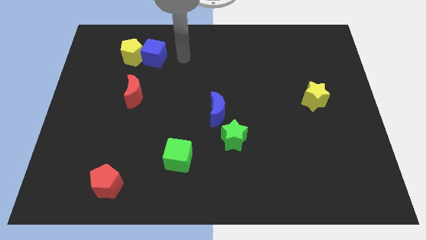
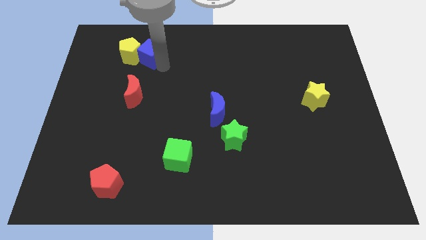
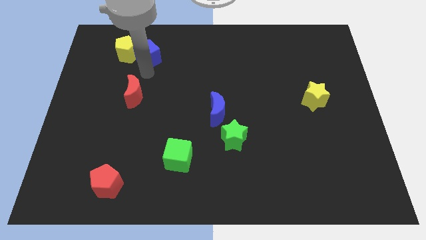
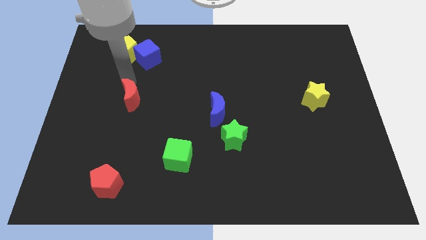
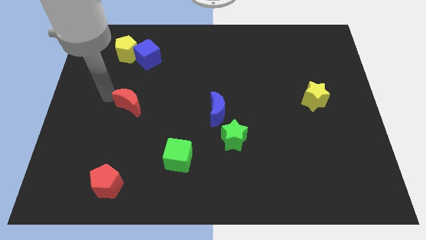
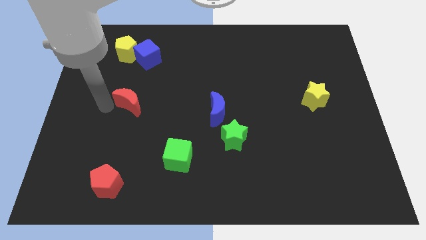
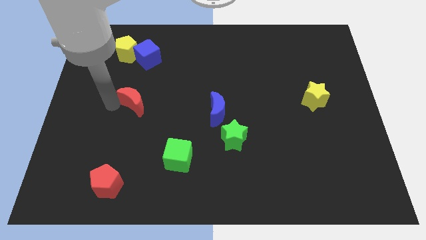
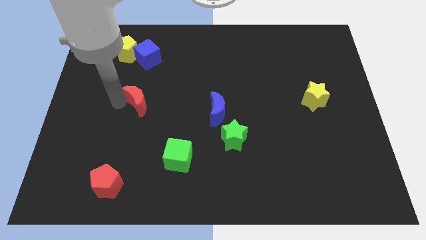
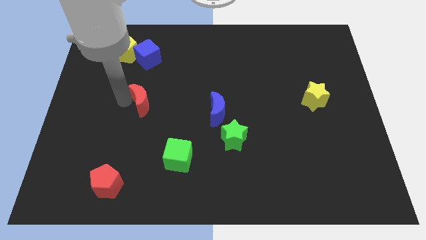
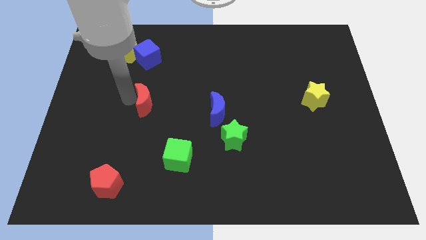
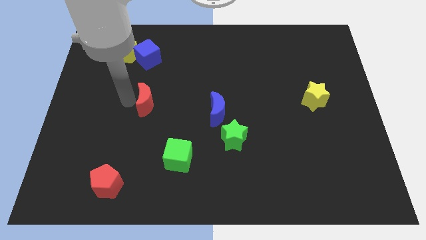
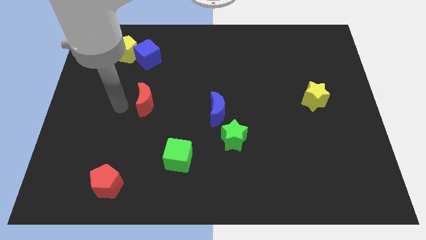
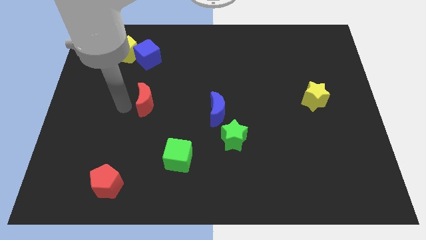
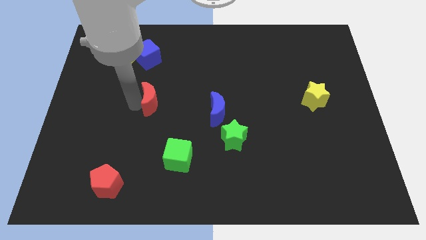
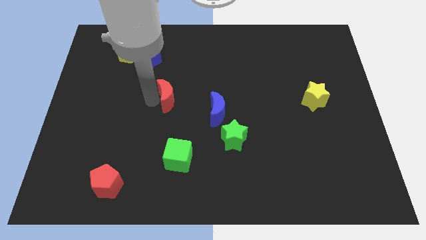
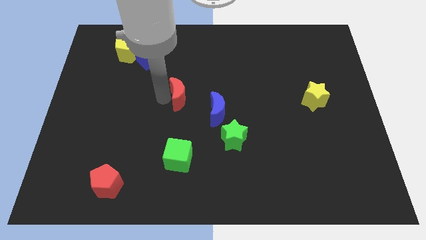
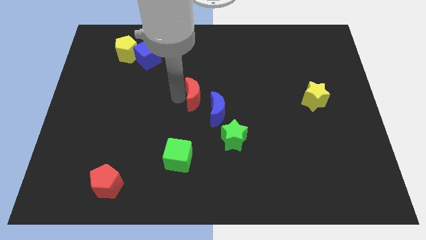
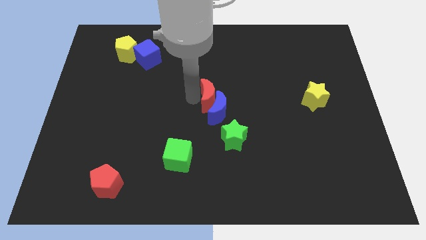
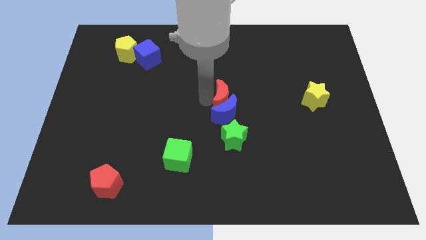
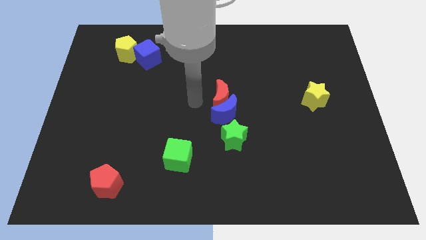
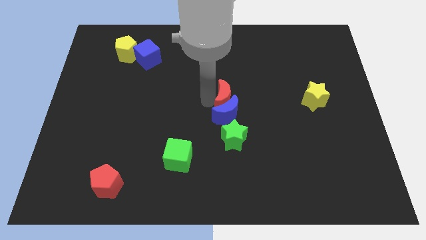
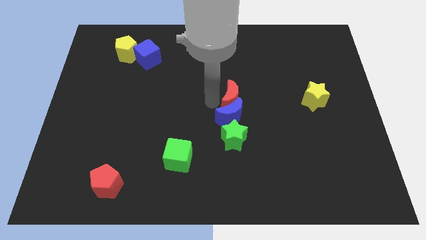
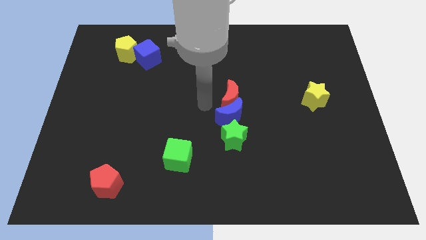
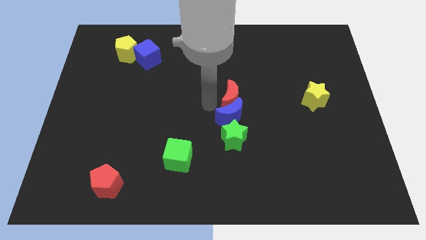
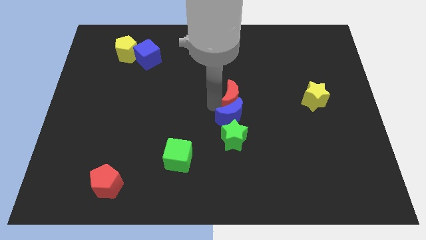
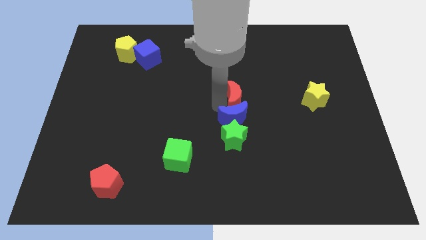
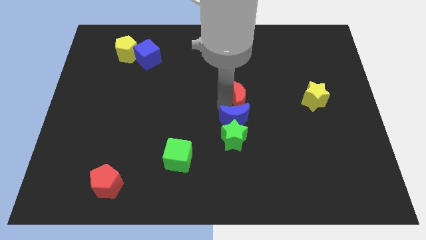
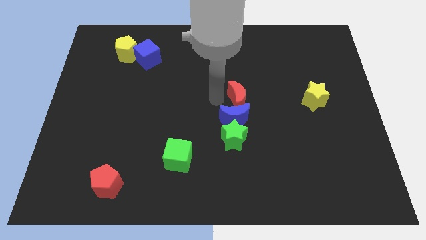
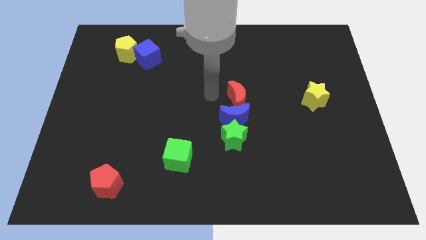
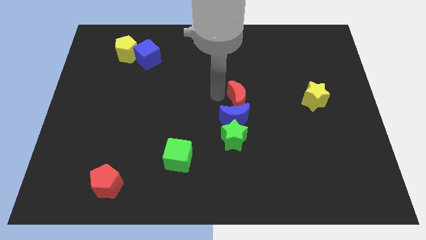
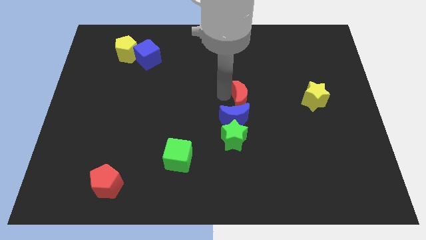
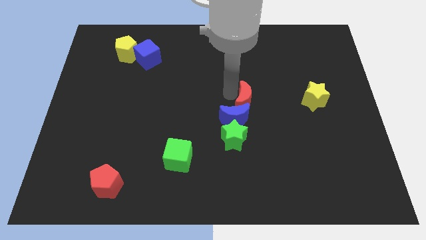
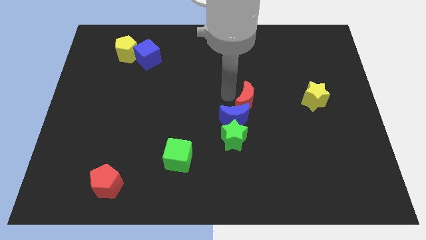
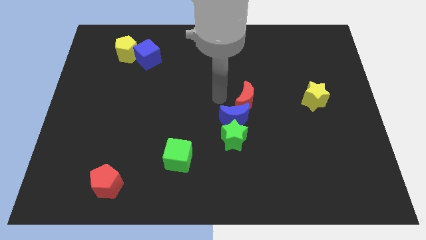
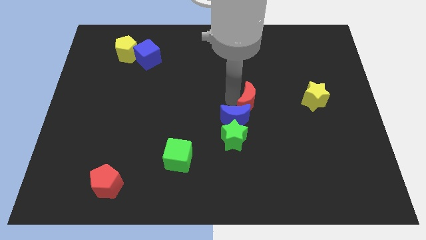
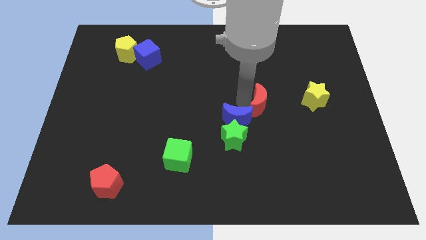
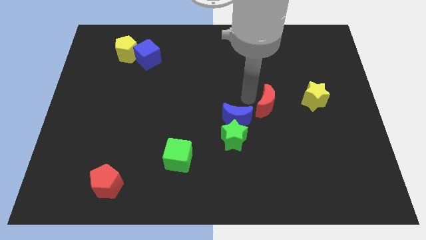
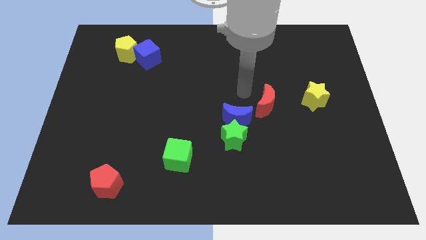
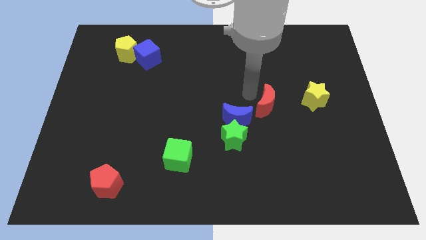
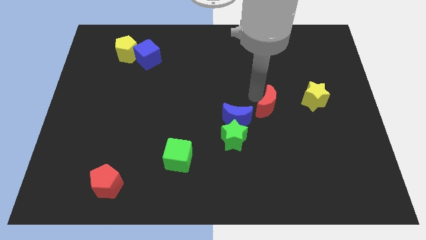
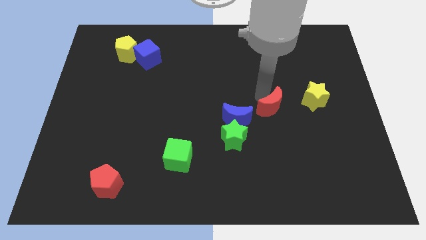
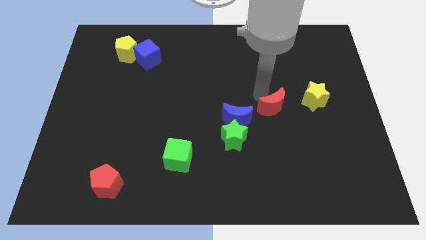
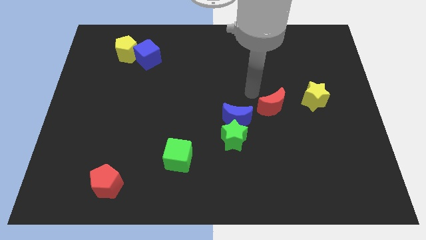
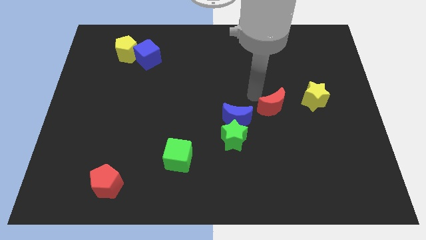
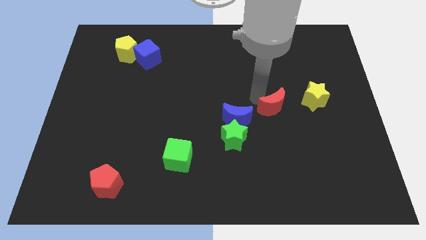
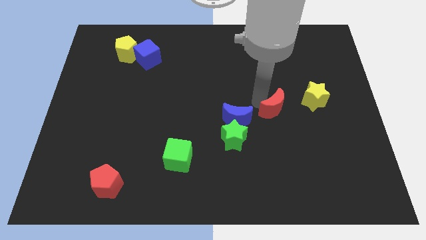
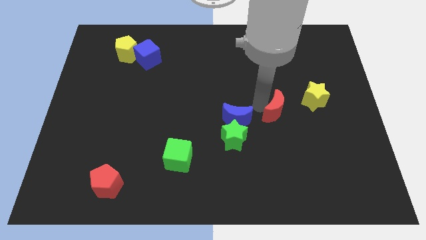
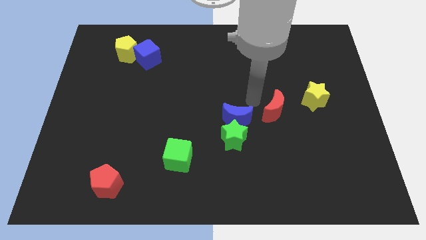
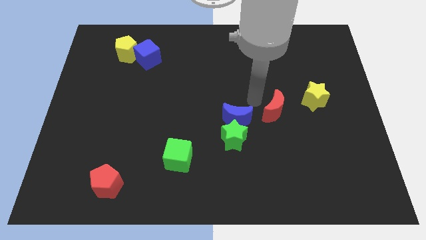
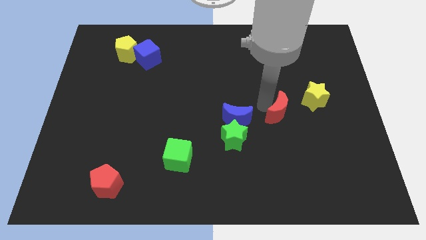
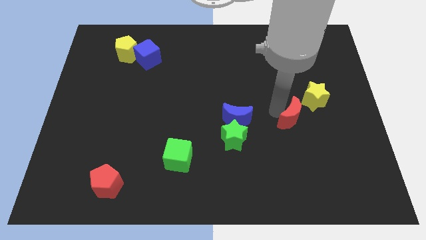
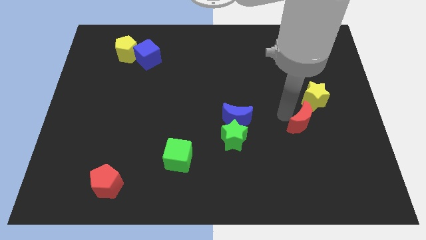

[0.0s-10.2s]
push the red moon to the bottom side of the yellow star

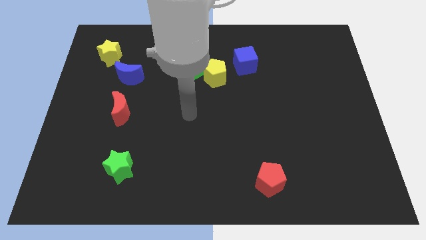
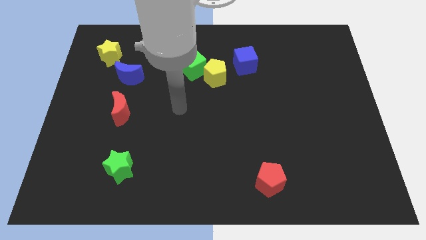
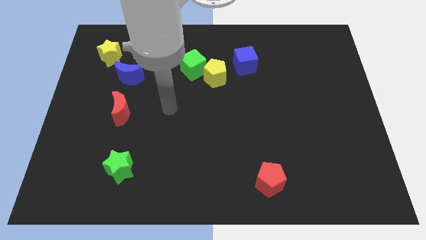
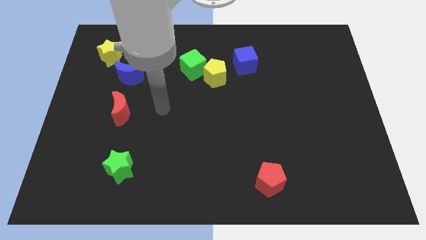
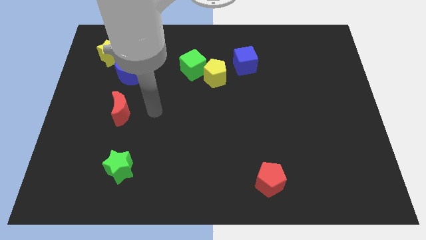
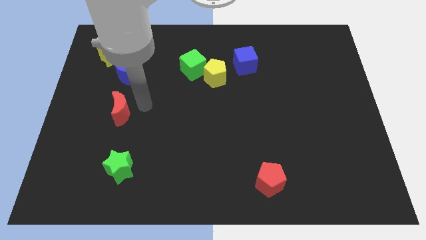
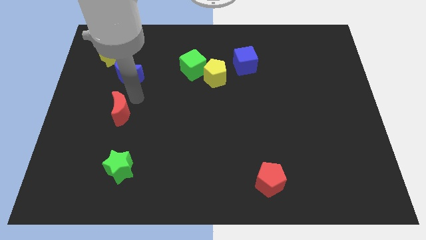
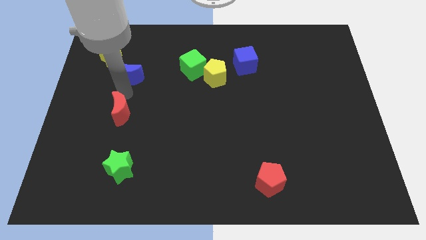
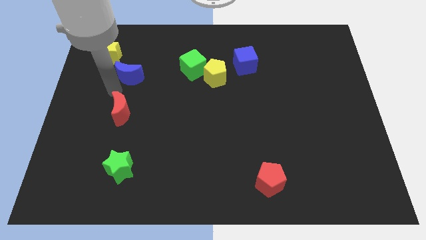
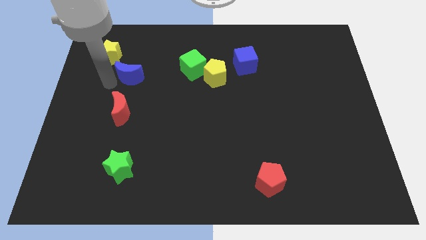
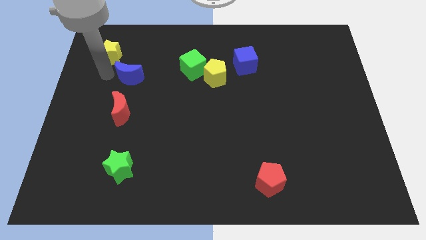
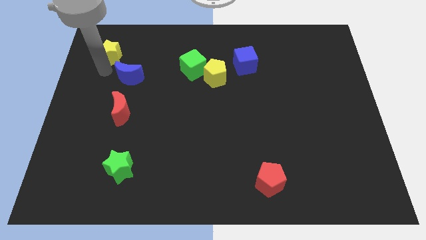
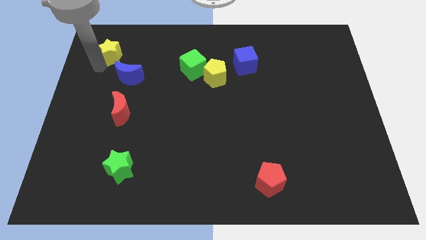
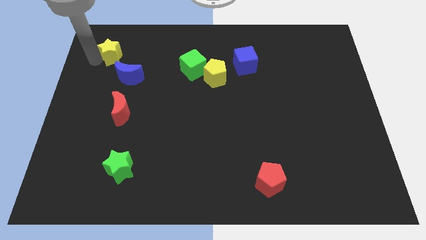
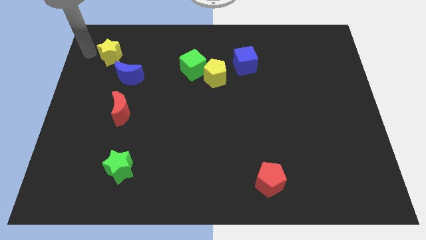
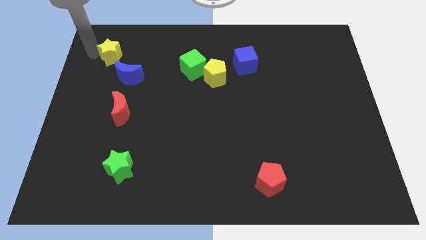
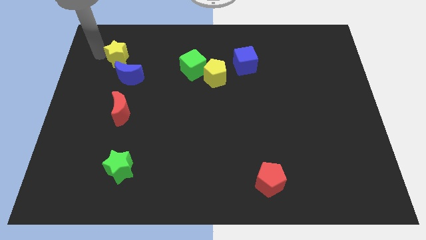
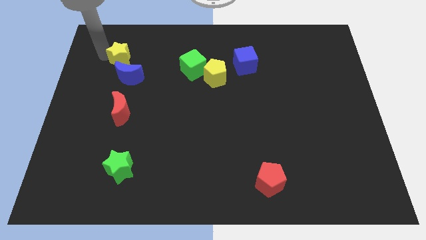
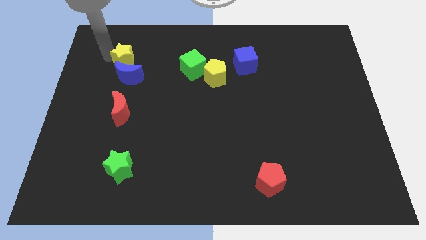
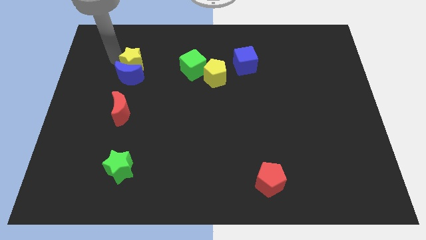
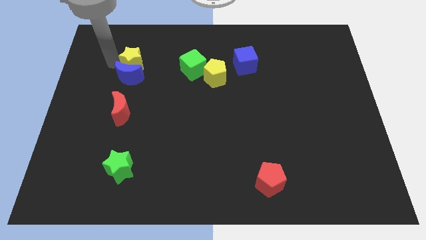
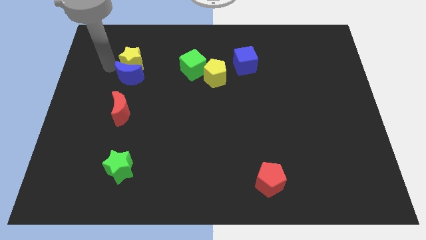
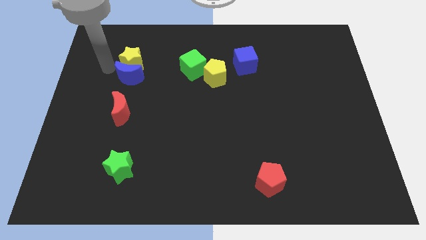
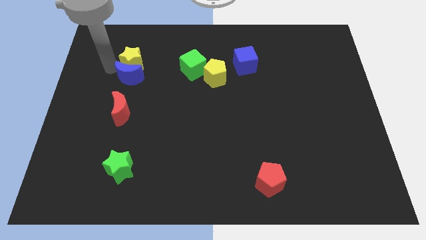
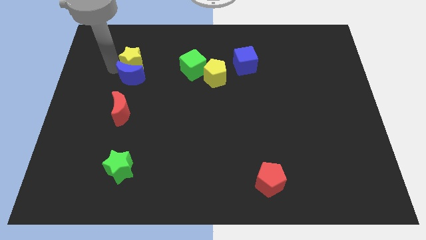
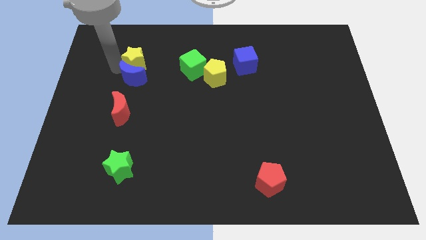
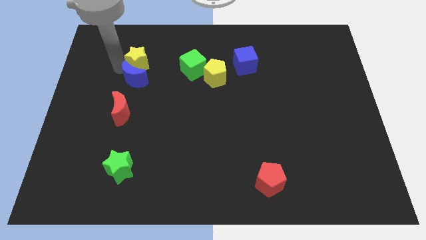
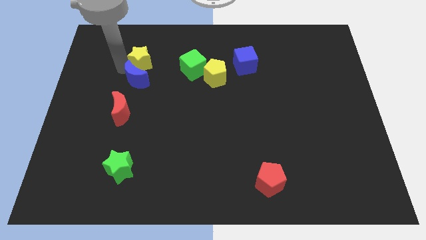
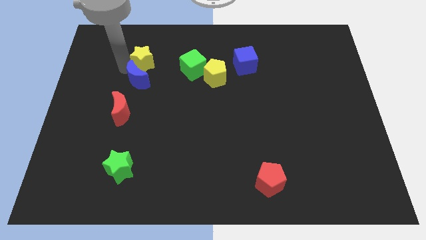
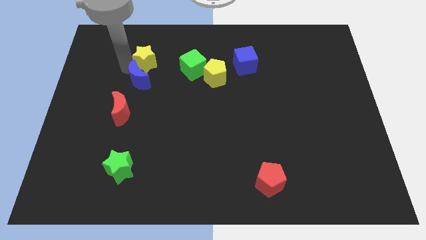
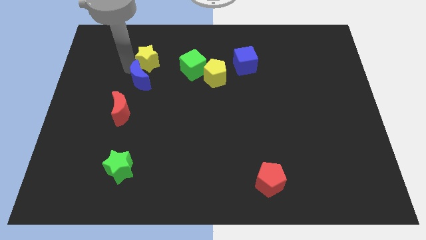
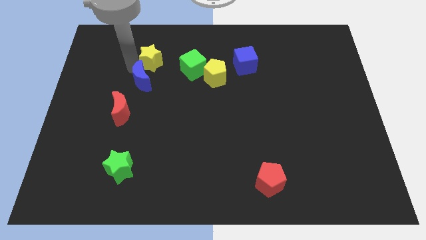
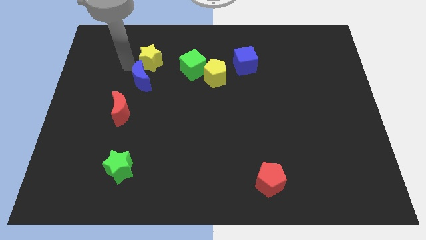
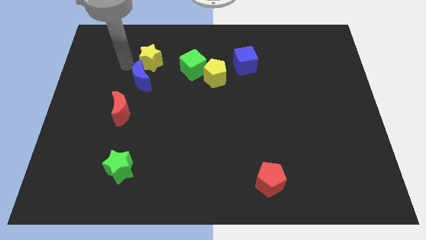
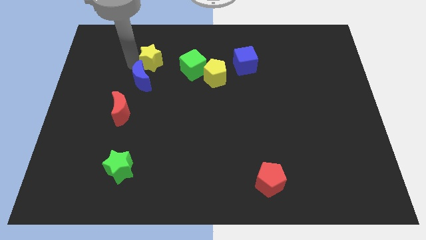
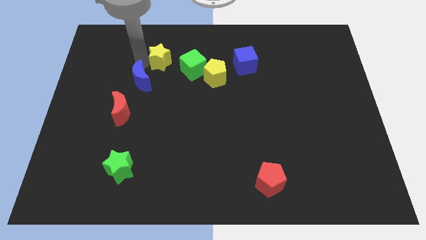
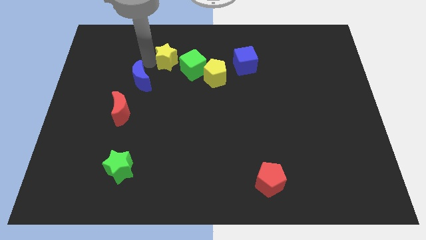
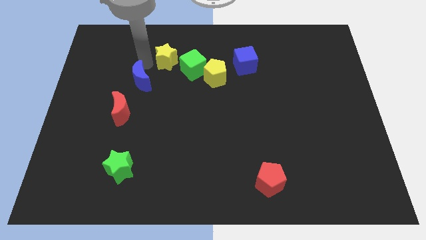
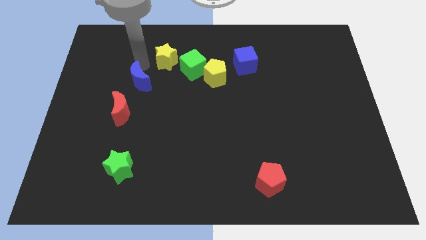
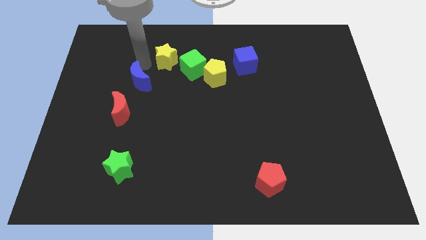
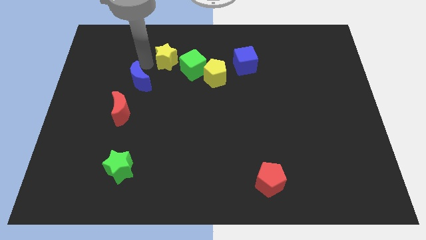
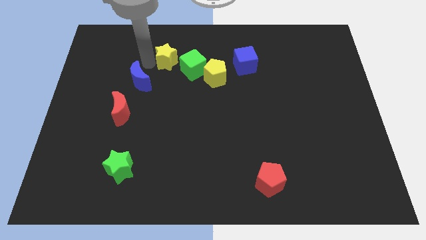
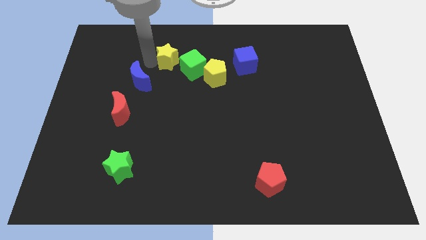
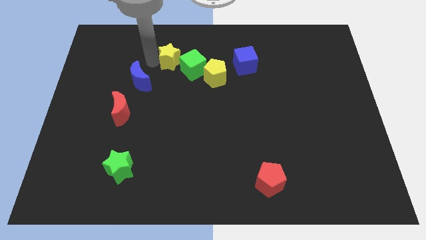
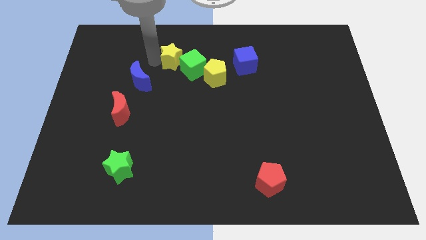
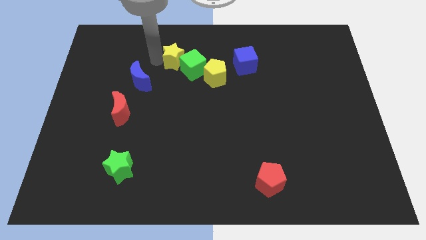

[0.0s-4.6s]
slide the yellow star to the top left side of the yellow pentagon
